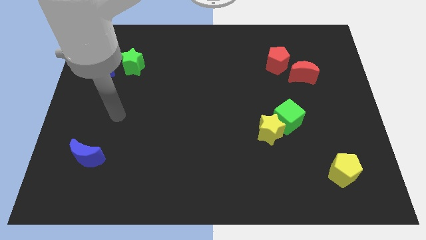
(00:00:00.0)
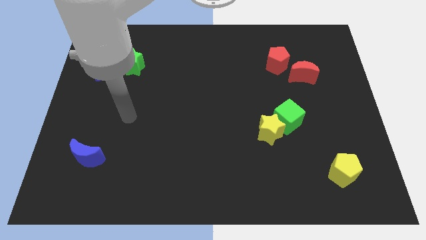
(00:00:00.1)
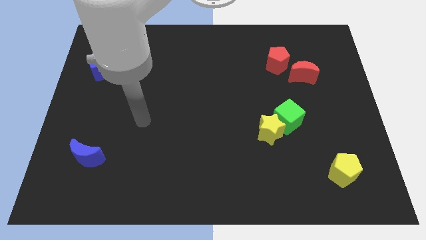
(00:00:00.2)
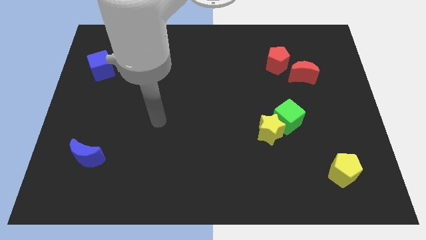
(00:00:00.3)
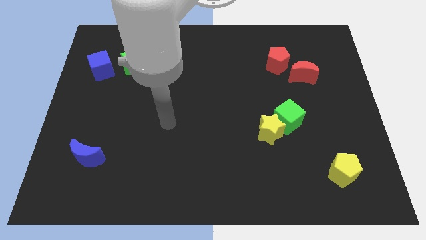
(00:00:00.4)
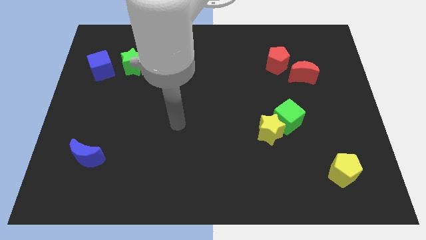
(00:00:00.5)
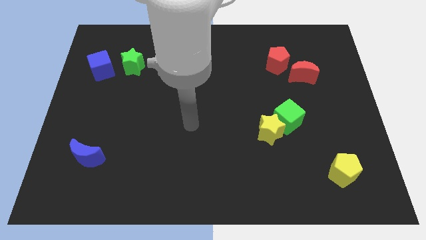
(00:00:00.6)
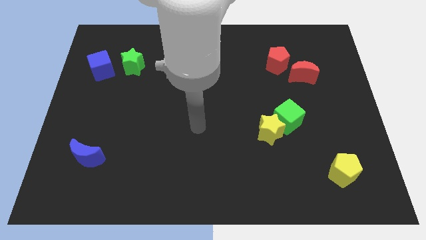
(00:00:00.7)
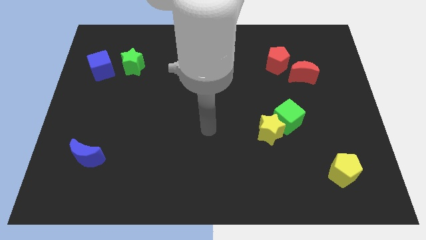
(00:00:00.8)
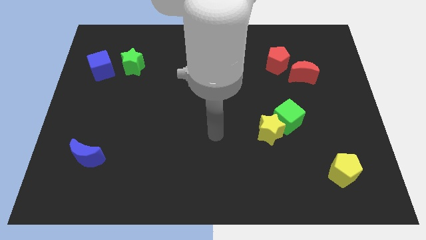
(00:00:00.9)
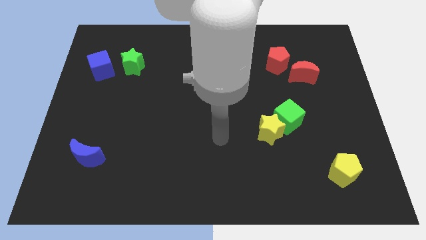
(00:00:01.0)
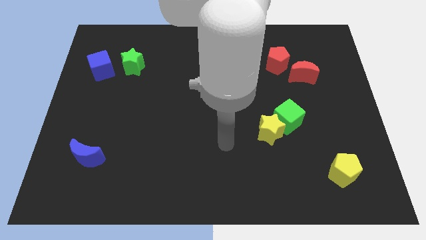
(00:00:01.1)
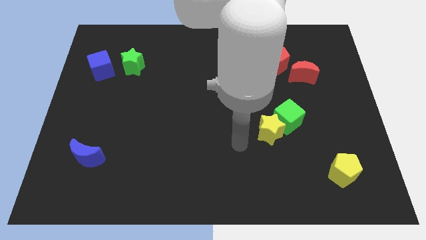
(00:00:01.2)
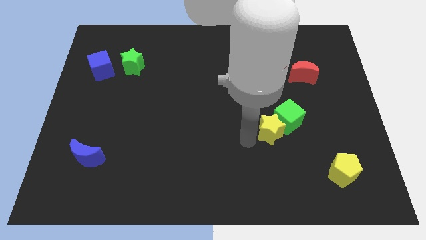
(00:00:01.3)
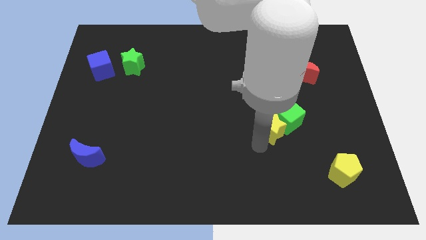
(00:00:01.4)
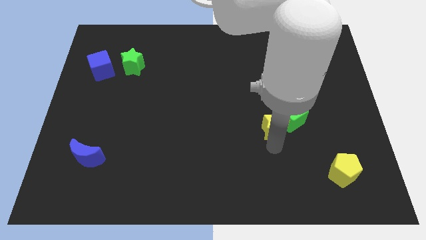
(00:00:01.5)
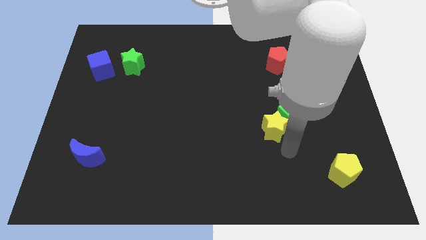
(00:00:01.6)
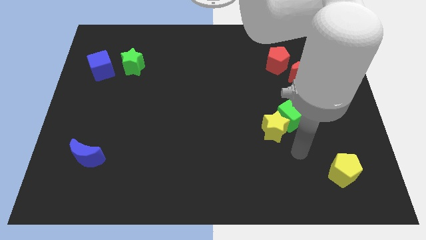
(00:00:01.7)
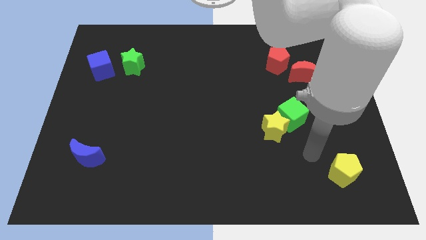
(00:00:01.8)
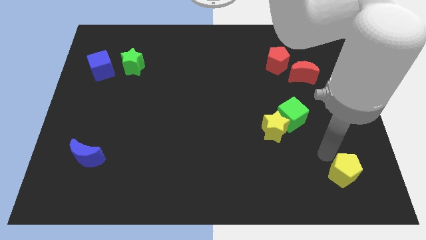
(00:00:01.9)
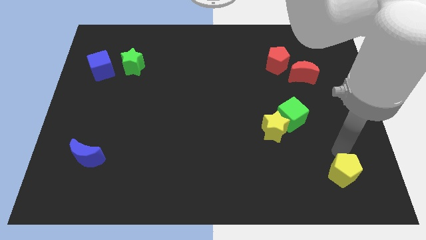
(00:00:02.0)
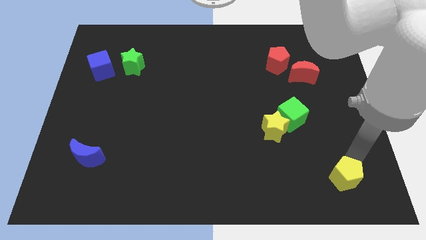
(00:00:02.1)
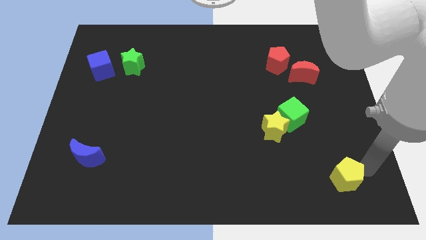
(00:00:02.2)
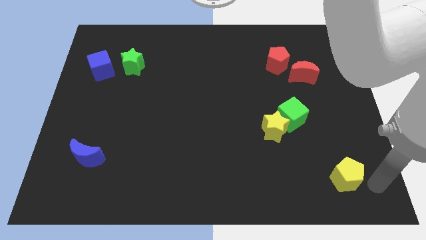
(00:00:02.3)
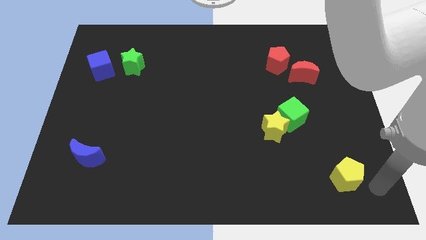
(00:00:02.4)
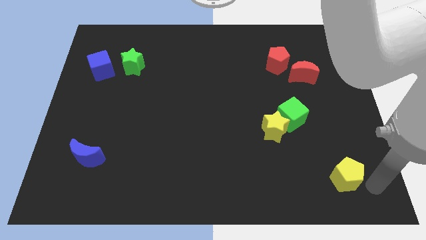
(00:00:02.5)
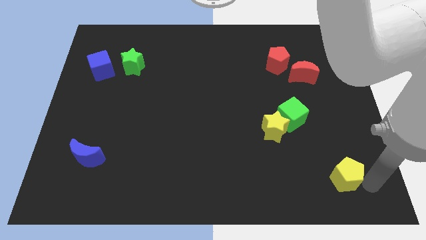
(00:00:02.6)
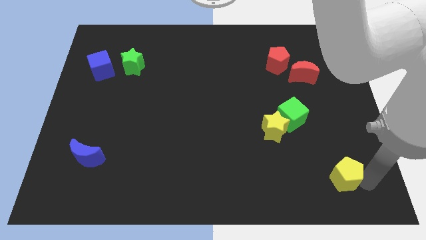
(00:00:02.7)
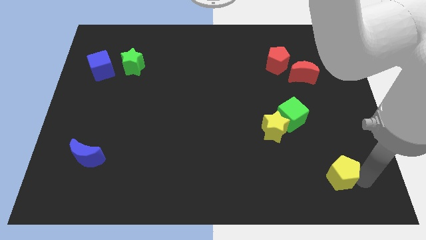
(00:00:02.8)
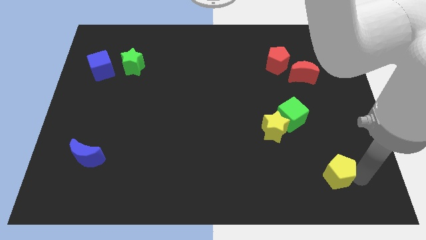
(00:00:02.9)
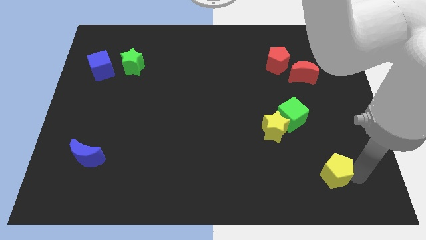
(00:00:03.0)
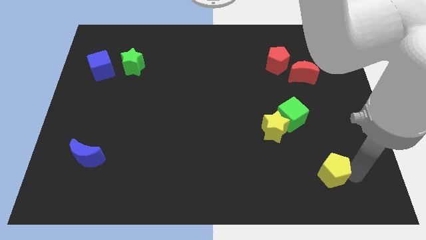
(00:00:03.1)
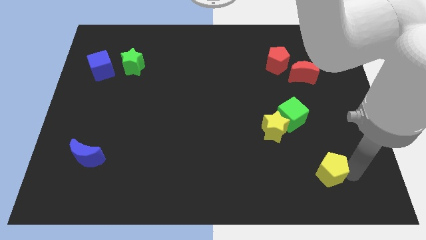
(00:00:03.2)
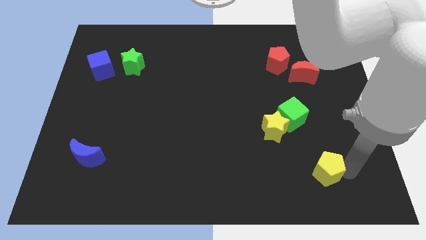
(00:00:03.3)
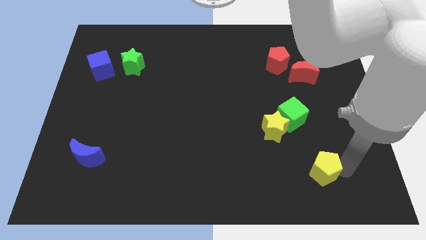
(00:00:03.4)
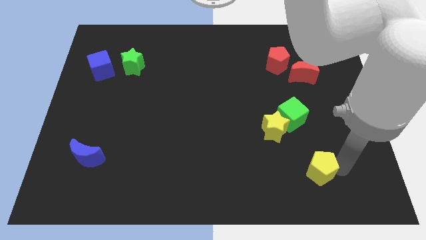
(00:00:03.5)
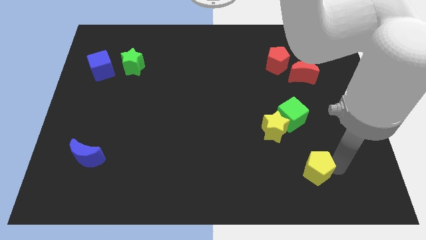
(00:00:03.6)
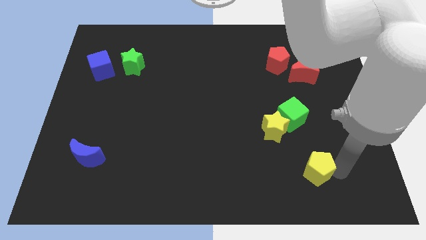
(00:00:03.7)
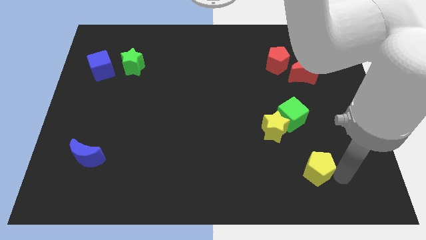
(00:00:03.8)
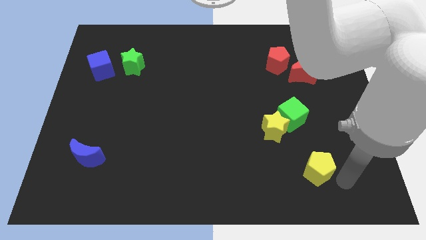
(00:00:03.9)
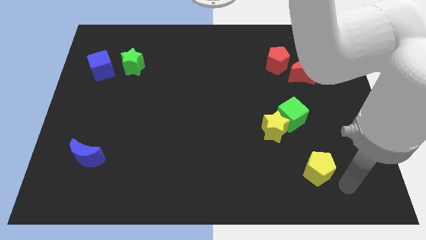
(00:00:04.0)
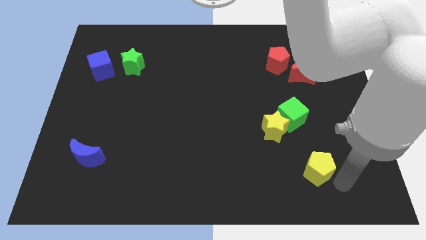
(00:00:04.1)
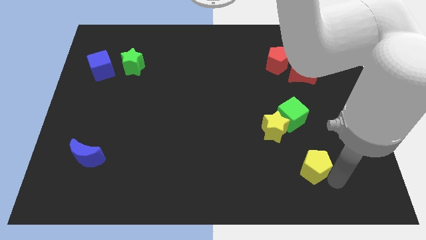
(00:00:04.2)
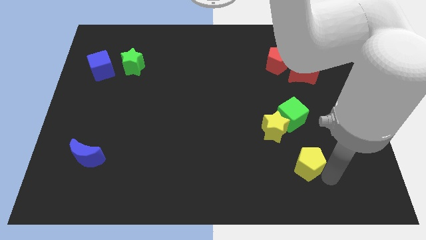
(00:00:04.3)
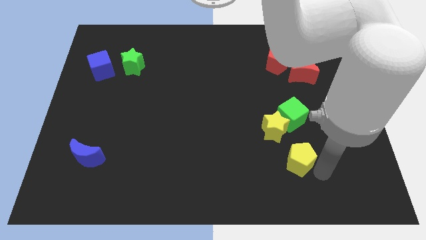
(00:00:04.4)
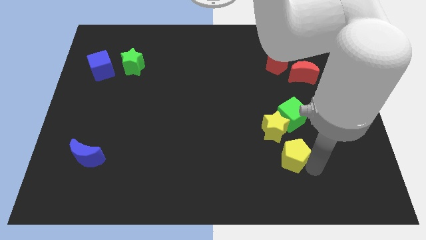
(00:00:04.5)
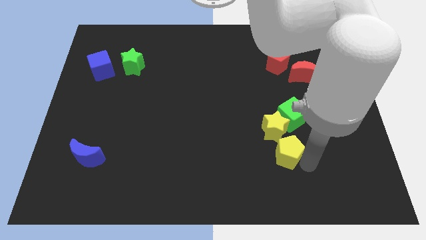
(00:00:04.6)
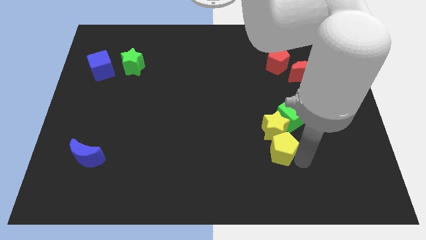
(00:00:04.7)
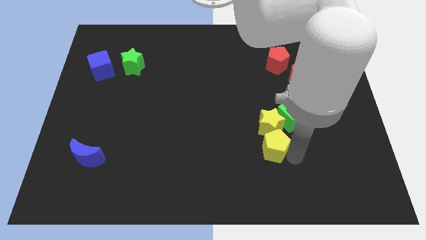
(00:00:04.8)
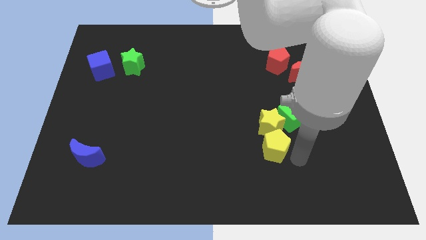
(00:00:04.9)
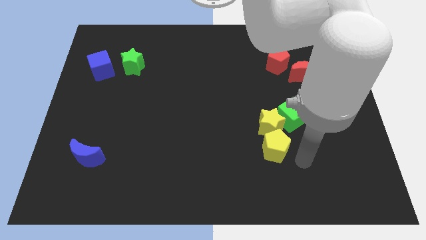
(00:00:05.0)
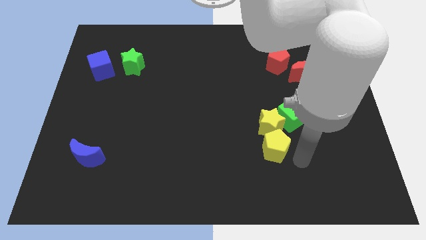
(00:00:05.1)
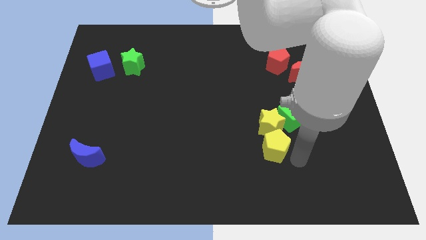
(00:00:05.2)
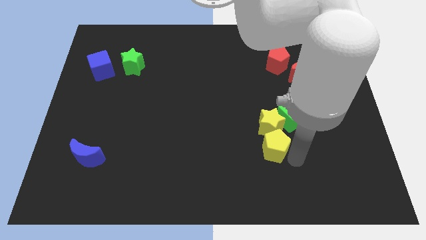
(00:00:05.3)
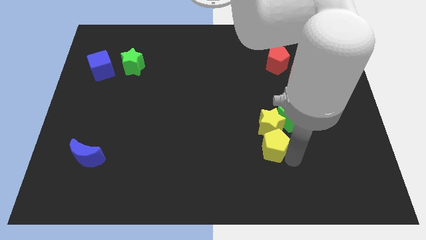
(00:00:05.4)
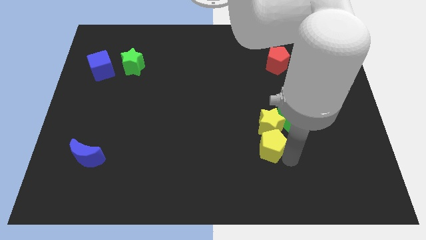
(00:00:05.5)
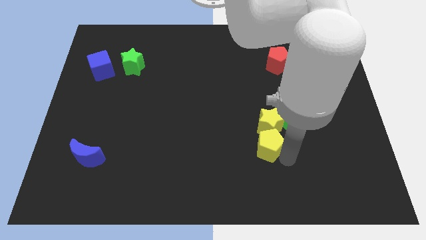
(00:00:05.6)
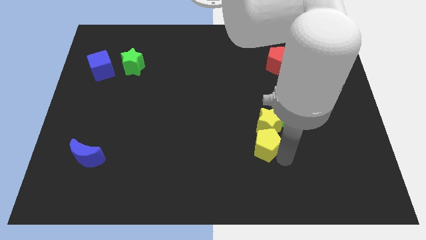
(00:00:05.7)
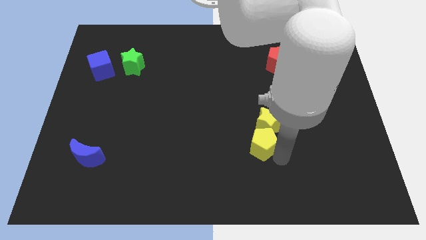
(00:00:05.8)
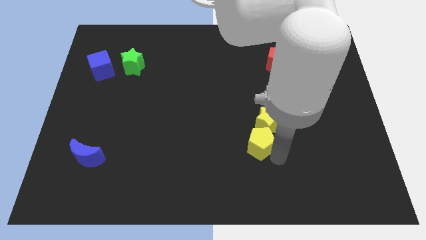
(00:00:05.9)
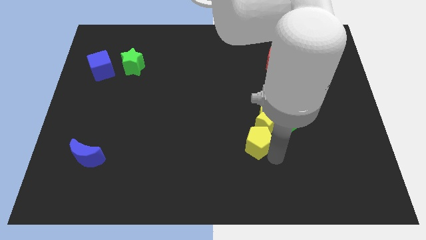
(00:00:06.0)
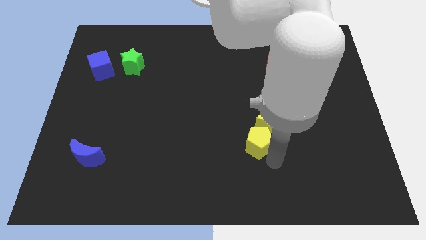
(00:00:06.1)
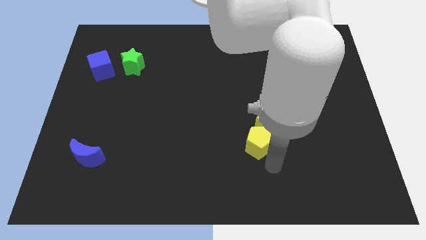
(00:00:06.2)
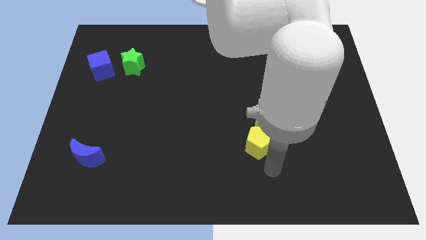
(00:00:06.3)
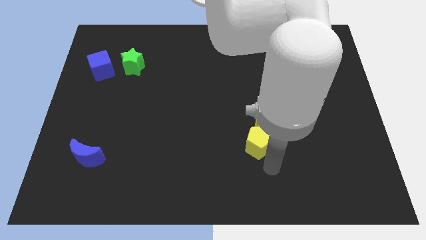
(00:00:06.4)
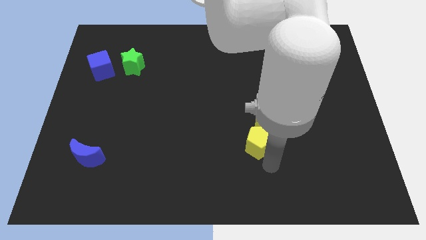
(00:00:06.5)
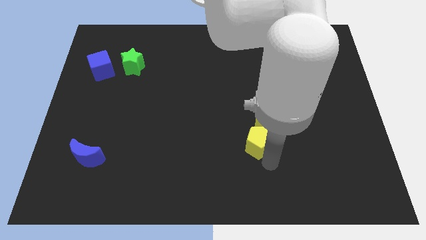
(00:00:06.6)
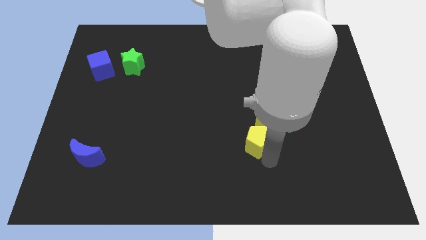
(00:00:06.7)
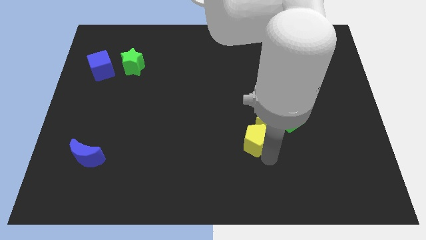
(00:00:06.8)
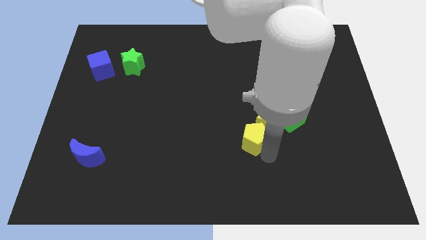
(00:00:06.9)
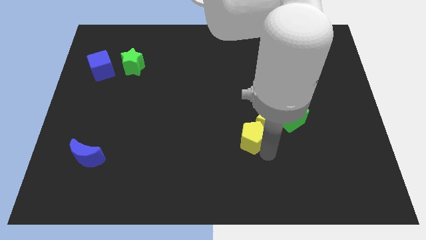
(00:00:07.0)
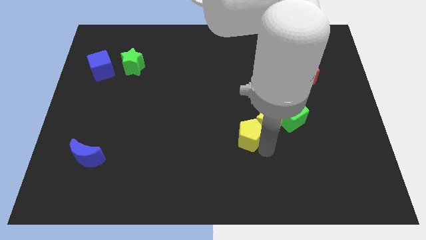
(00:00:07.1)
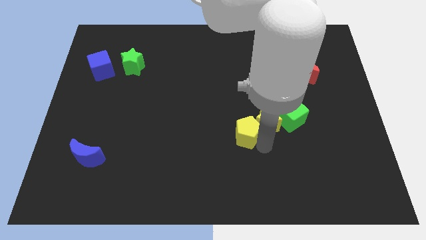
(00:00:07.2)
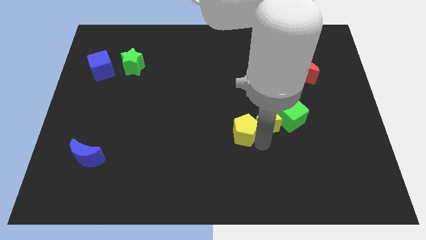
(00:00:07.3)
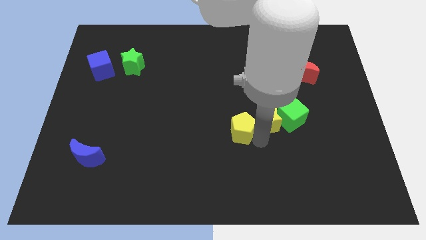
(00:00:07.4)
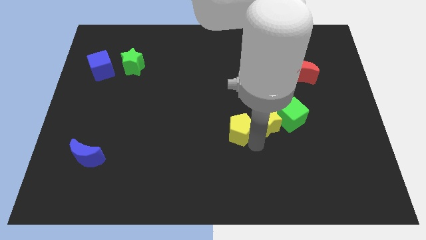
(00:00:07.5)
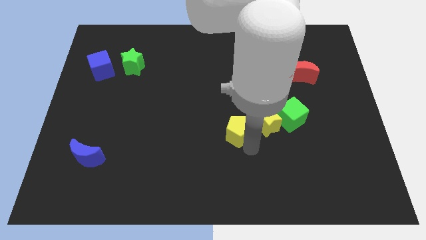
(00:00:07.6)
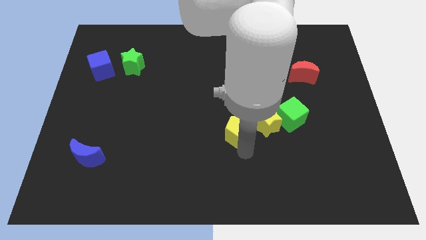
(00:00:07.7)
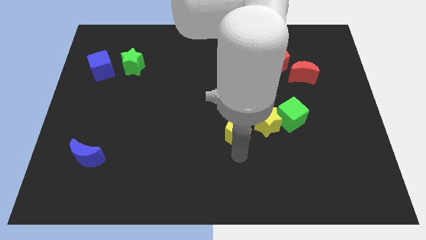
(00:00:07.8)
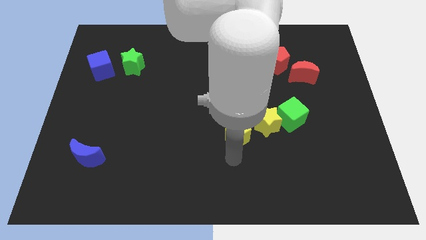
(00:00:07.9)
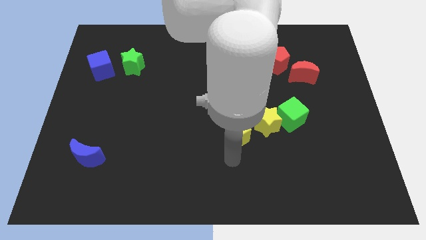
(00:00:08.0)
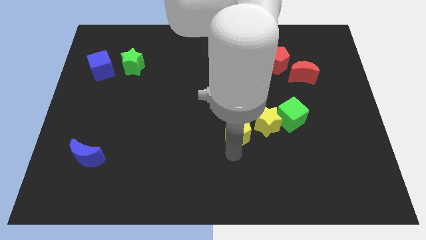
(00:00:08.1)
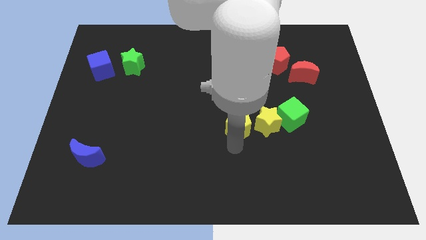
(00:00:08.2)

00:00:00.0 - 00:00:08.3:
move the yellow pentagon up and then left
